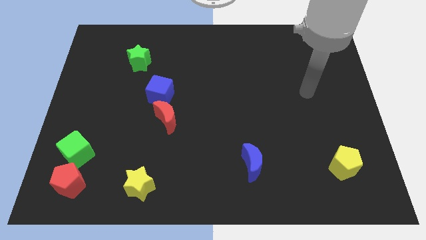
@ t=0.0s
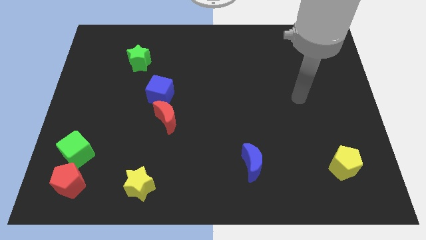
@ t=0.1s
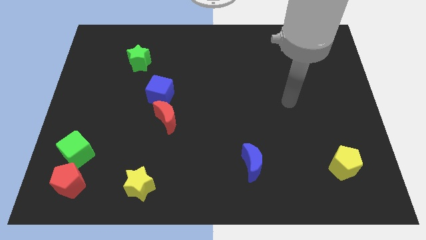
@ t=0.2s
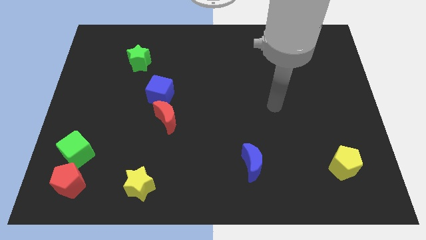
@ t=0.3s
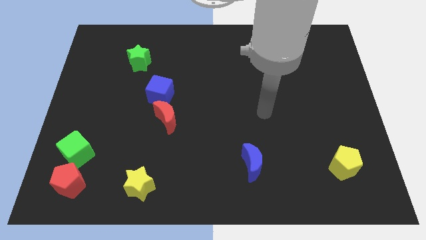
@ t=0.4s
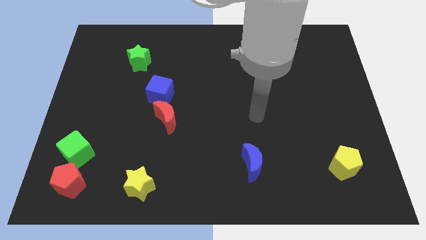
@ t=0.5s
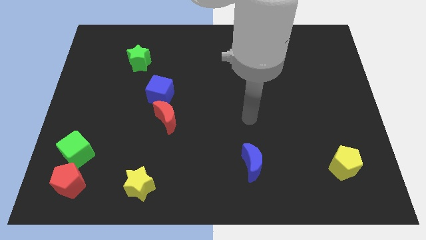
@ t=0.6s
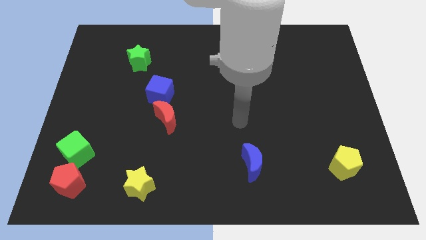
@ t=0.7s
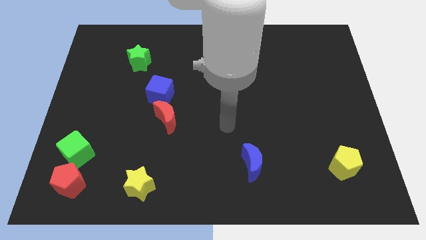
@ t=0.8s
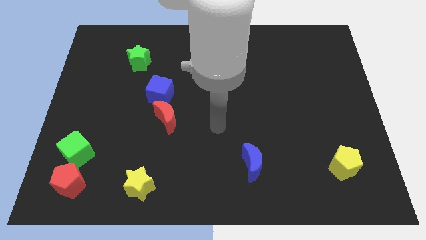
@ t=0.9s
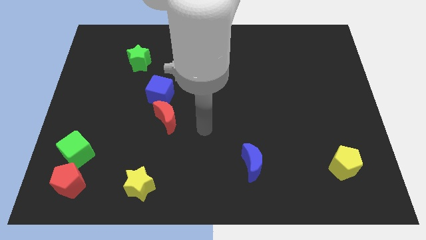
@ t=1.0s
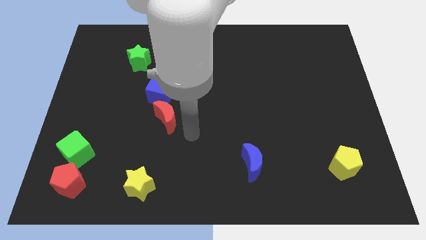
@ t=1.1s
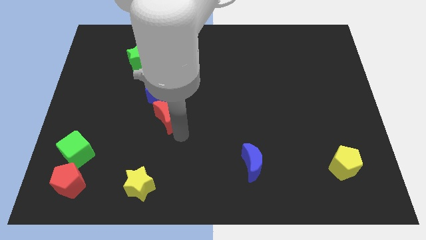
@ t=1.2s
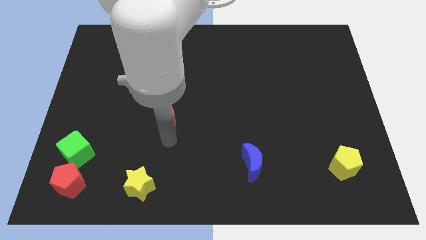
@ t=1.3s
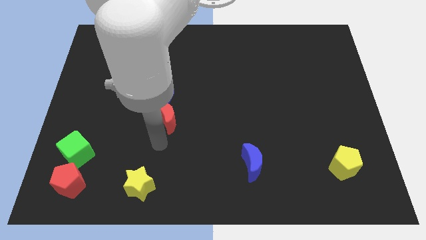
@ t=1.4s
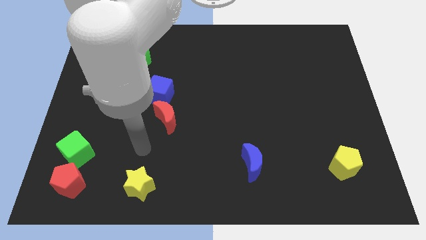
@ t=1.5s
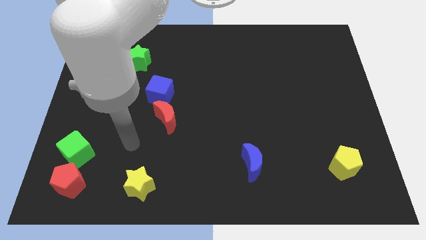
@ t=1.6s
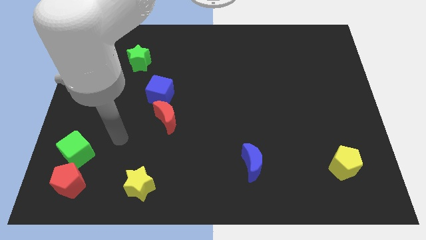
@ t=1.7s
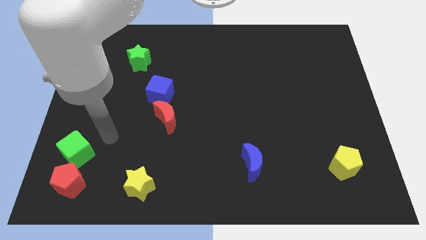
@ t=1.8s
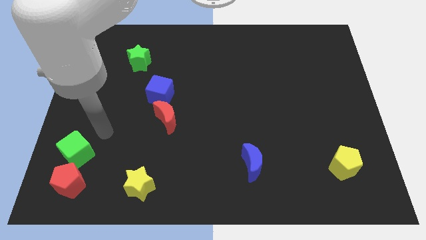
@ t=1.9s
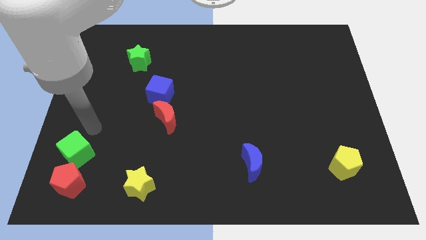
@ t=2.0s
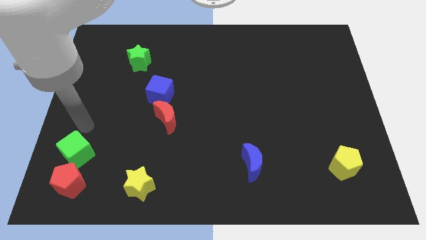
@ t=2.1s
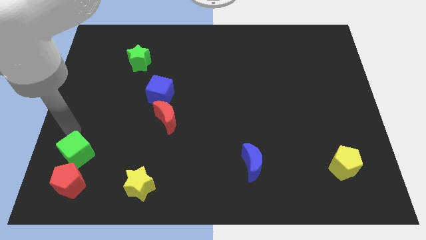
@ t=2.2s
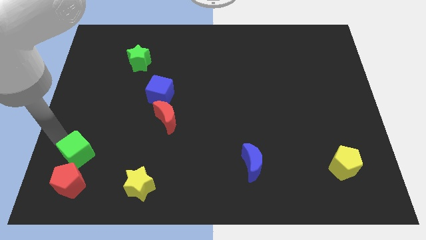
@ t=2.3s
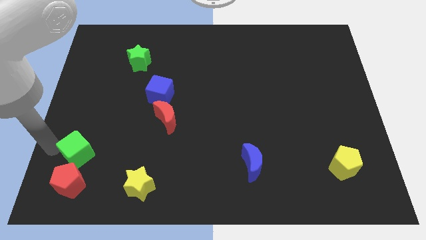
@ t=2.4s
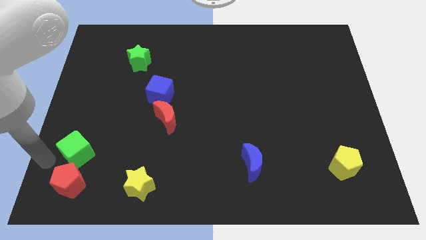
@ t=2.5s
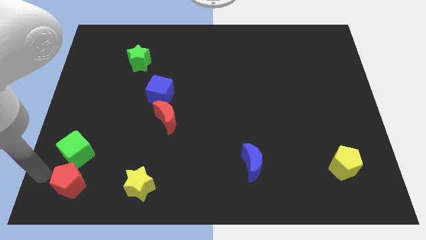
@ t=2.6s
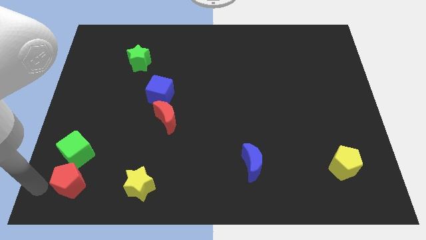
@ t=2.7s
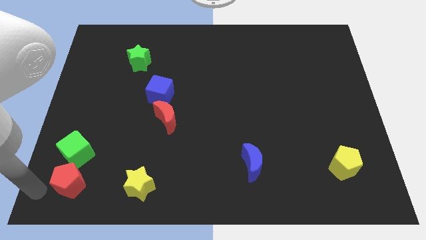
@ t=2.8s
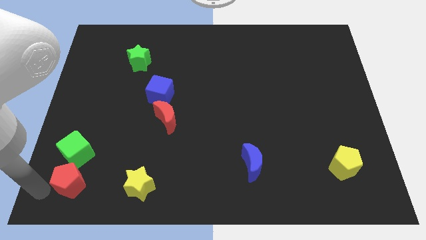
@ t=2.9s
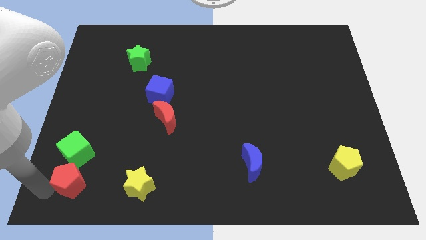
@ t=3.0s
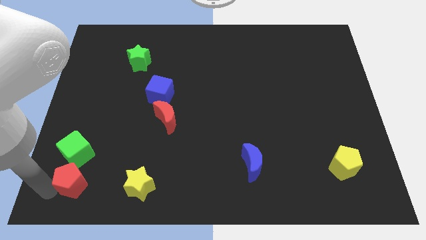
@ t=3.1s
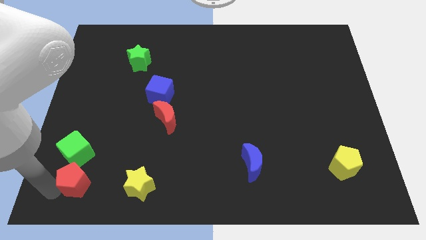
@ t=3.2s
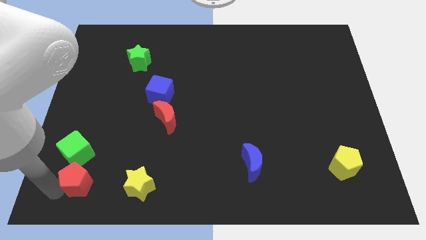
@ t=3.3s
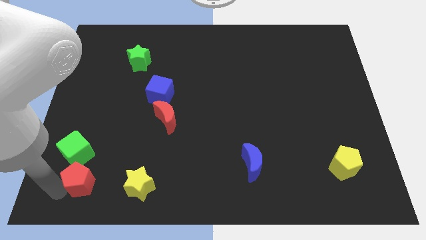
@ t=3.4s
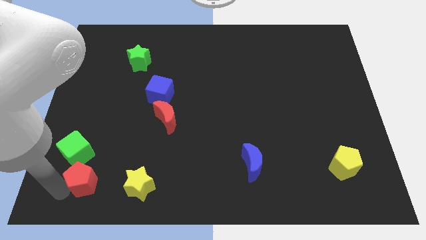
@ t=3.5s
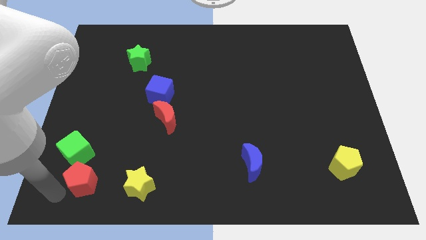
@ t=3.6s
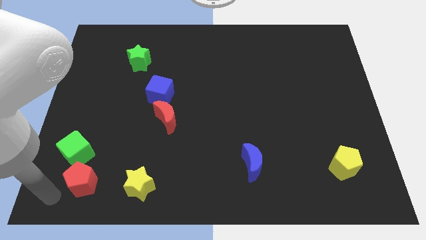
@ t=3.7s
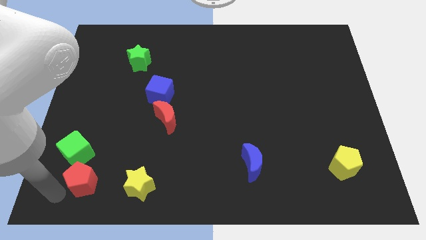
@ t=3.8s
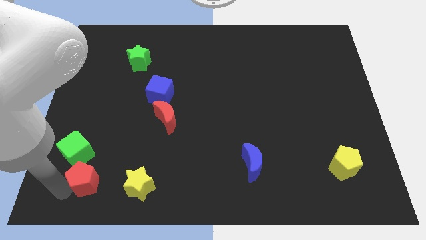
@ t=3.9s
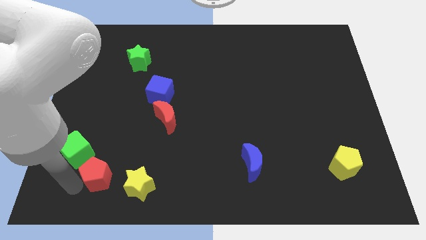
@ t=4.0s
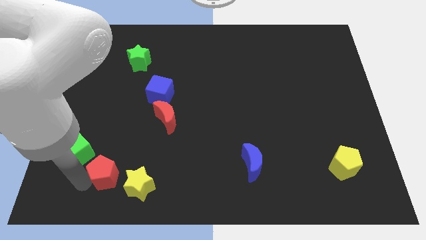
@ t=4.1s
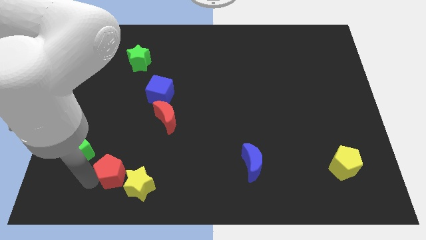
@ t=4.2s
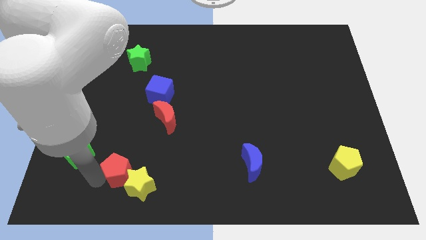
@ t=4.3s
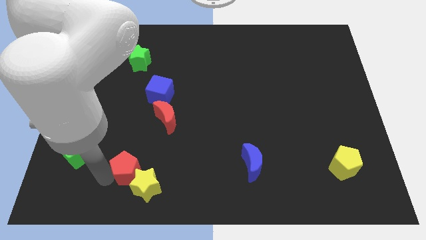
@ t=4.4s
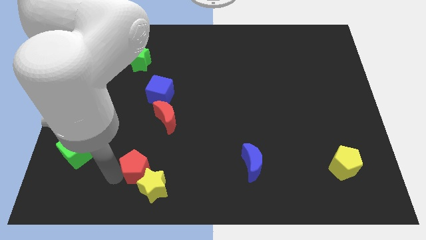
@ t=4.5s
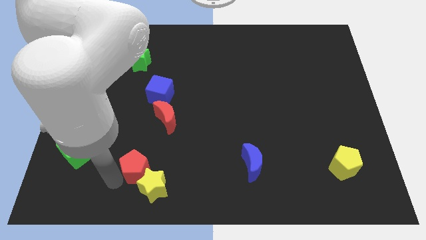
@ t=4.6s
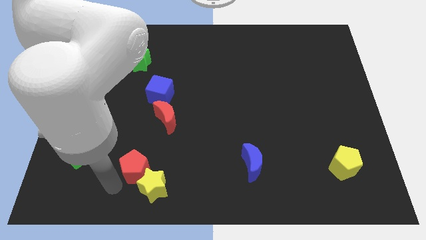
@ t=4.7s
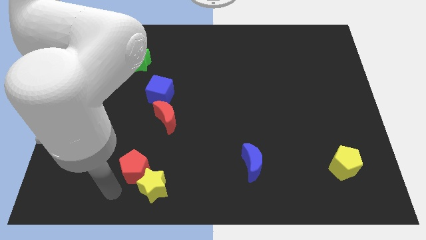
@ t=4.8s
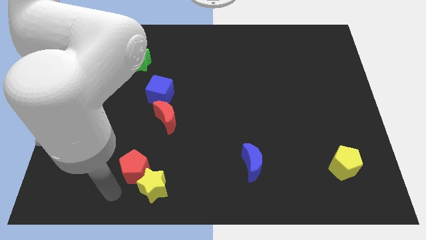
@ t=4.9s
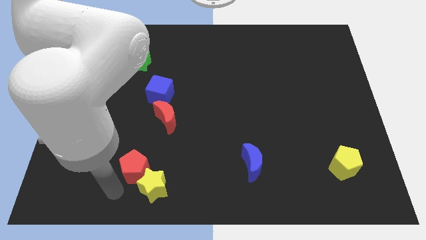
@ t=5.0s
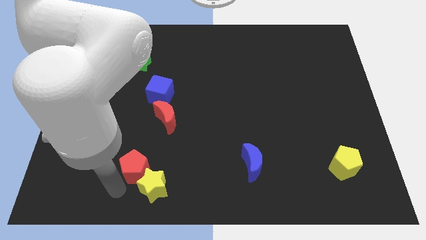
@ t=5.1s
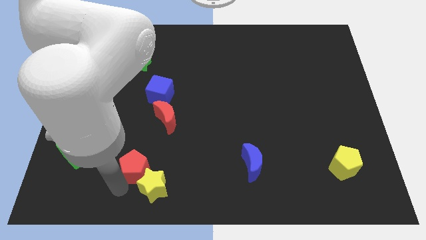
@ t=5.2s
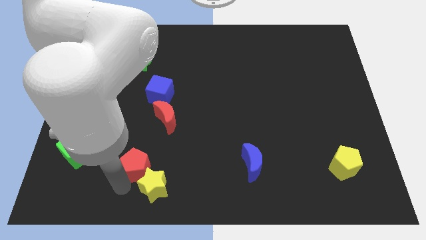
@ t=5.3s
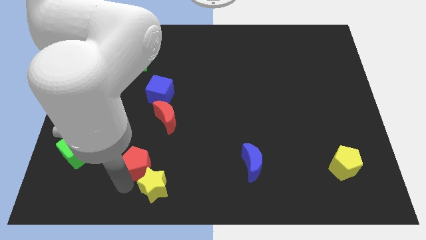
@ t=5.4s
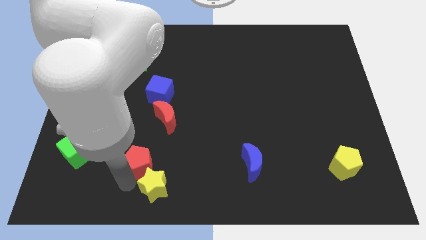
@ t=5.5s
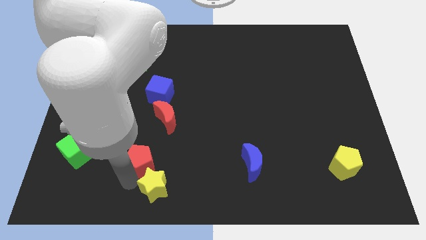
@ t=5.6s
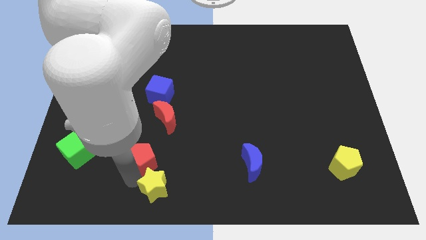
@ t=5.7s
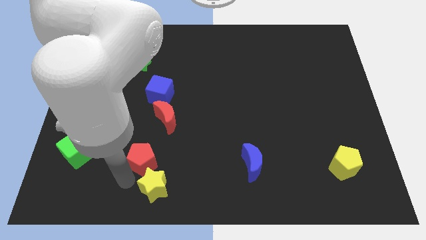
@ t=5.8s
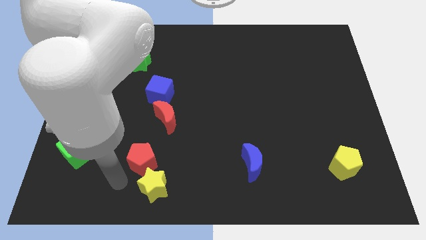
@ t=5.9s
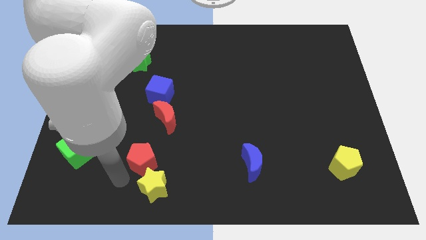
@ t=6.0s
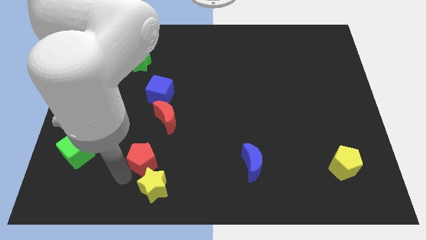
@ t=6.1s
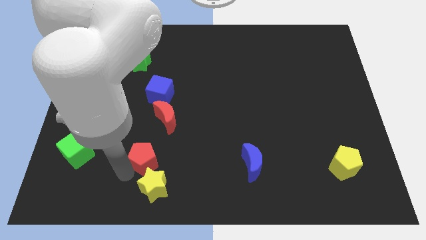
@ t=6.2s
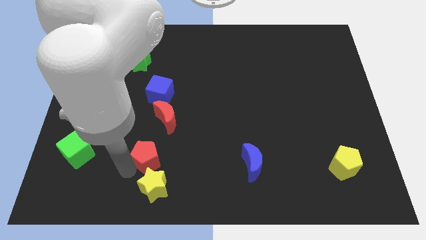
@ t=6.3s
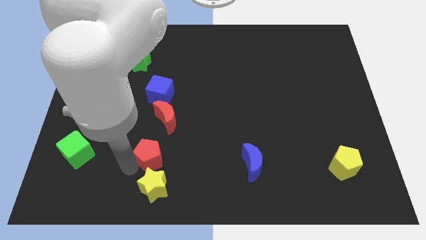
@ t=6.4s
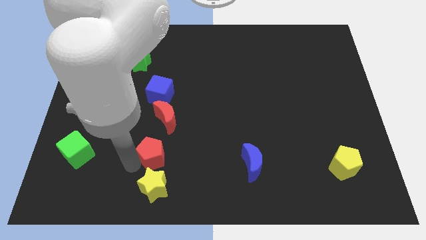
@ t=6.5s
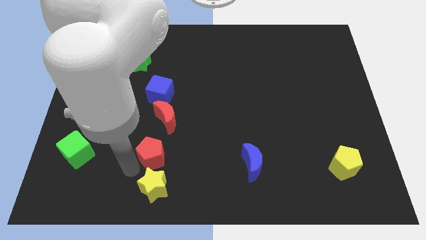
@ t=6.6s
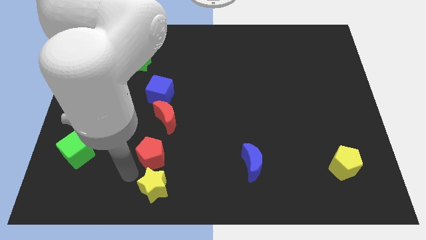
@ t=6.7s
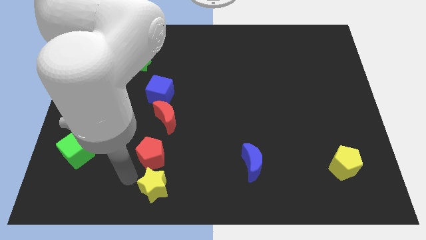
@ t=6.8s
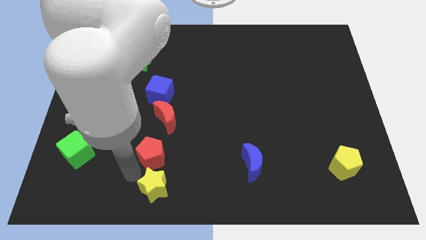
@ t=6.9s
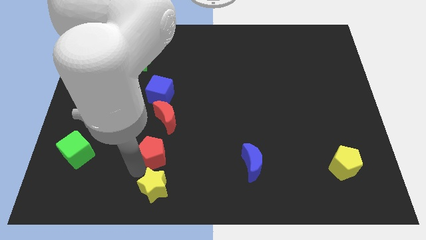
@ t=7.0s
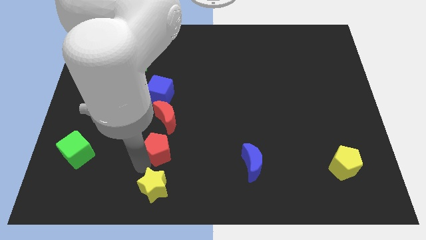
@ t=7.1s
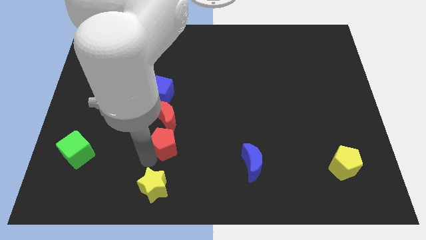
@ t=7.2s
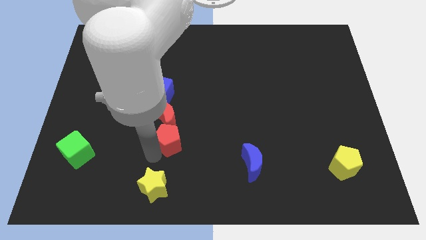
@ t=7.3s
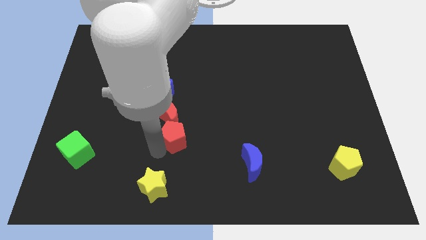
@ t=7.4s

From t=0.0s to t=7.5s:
move the red pentagon diagonally upwards and to the right

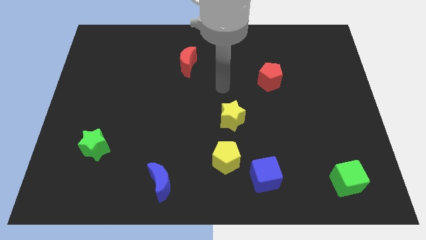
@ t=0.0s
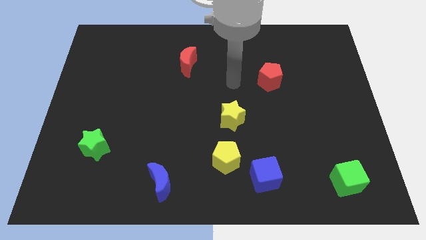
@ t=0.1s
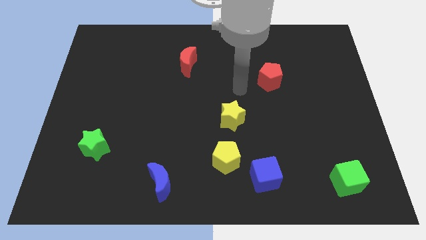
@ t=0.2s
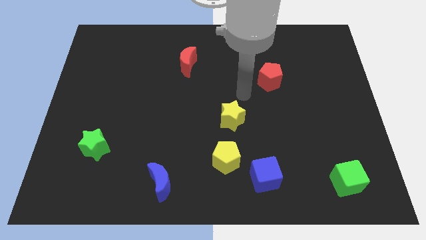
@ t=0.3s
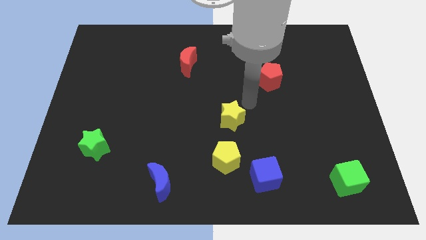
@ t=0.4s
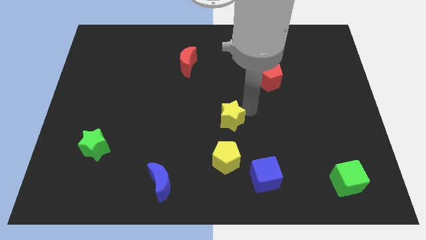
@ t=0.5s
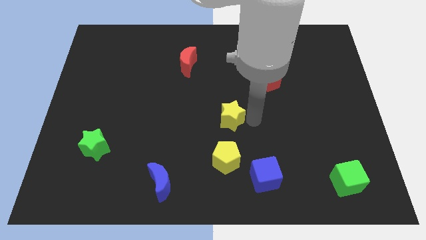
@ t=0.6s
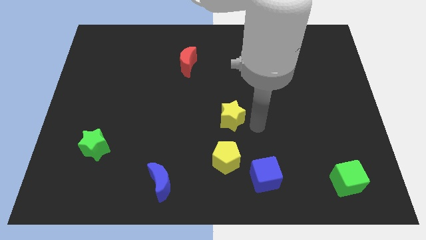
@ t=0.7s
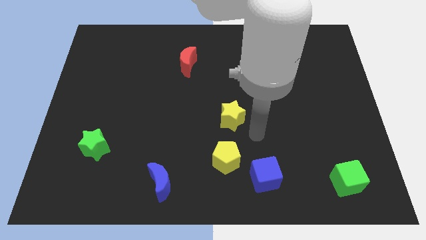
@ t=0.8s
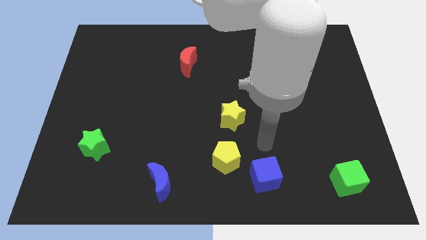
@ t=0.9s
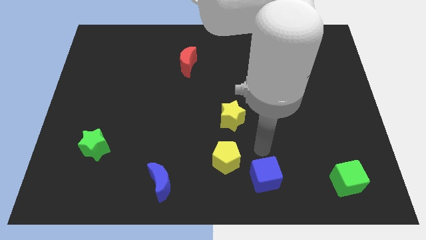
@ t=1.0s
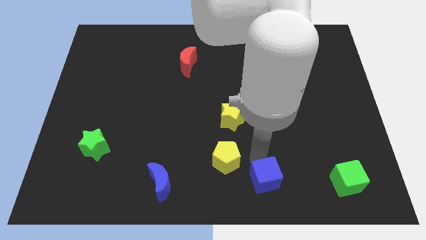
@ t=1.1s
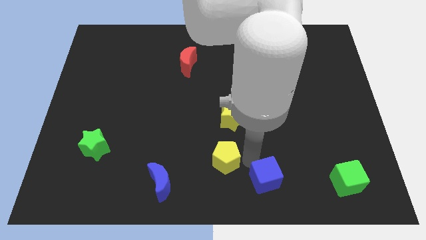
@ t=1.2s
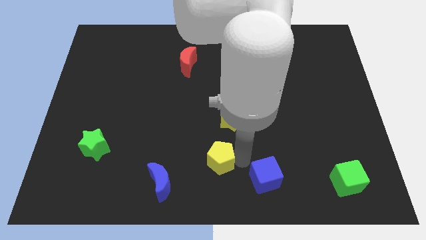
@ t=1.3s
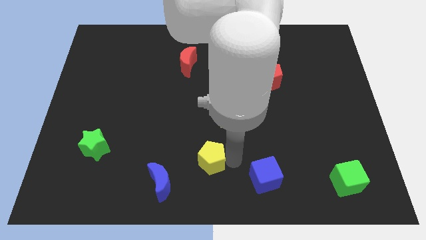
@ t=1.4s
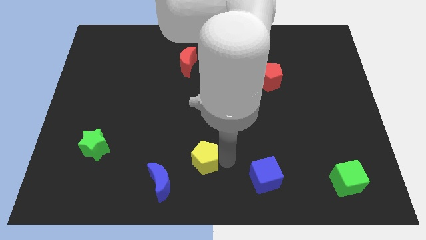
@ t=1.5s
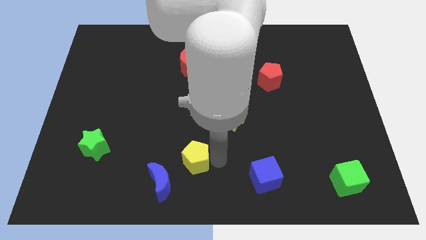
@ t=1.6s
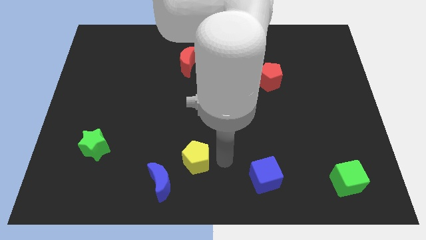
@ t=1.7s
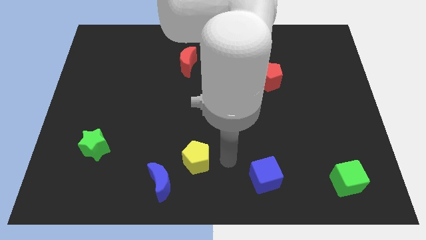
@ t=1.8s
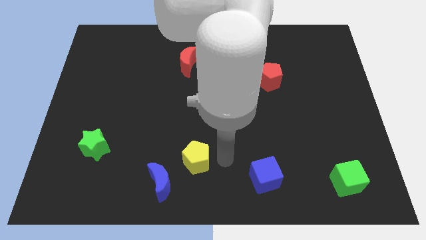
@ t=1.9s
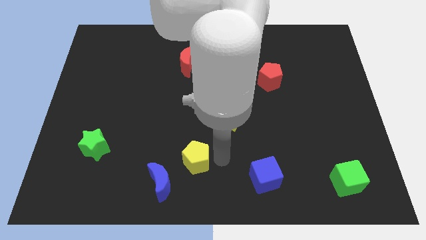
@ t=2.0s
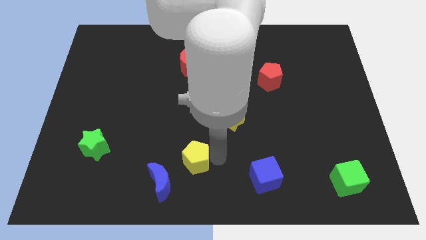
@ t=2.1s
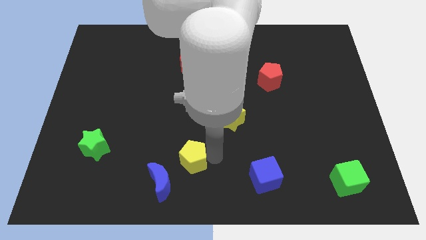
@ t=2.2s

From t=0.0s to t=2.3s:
slide the yellow pentagon somewhat to the left
